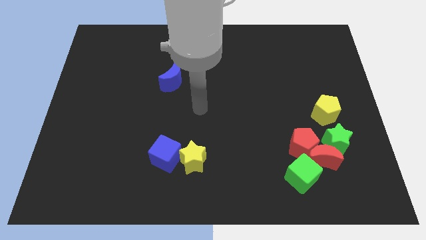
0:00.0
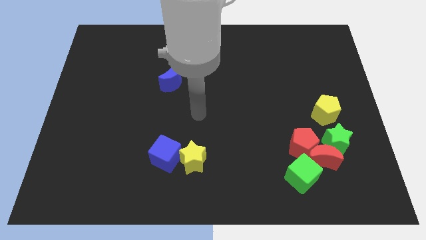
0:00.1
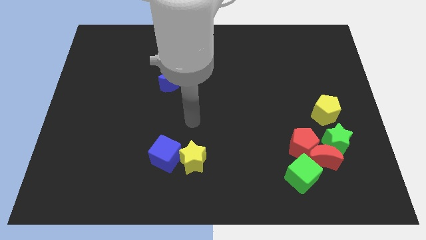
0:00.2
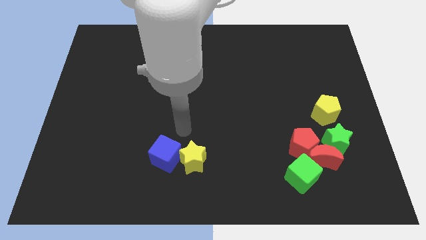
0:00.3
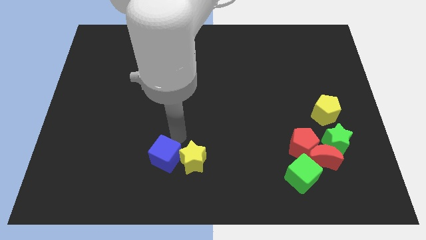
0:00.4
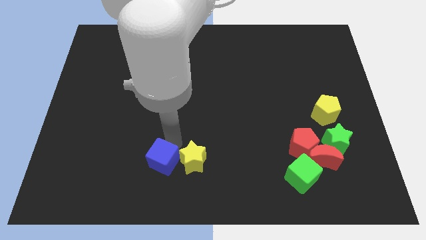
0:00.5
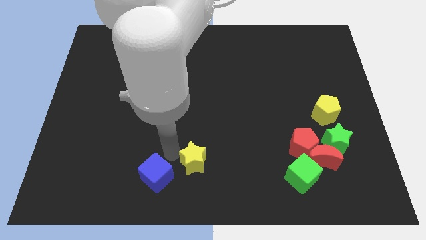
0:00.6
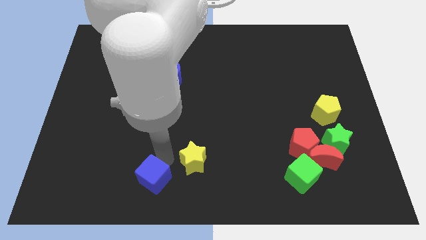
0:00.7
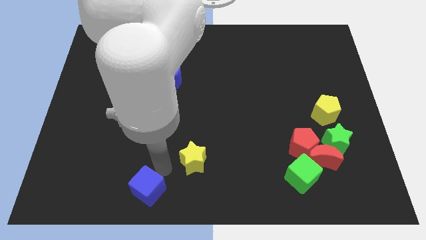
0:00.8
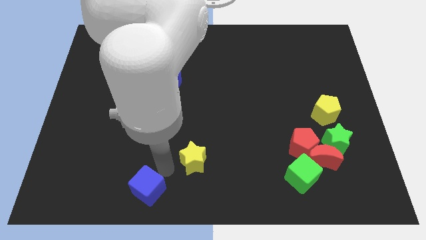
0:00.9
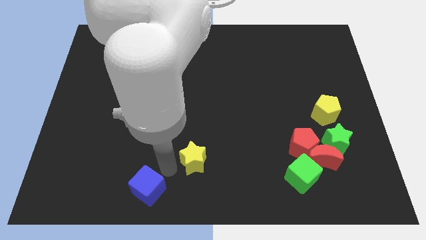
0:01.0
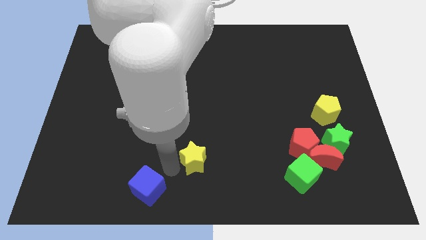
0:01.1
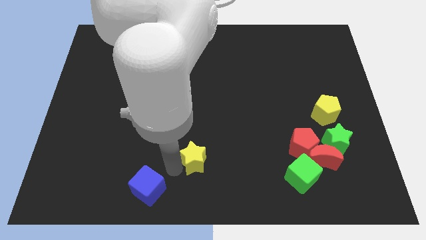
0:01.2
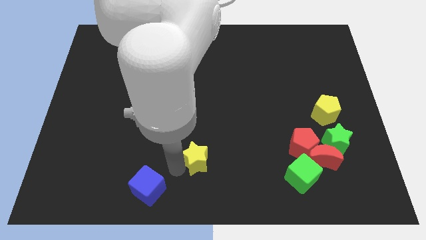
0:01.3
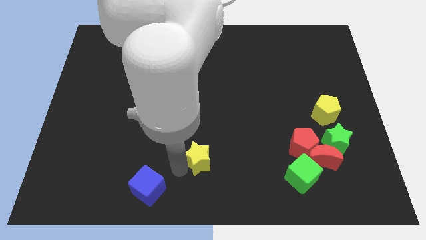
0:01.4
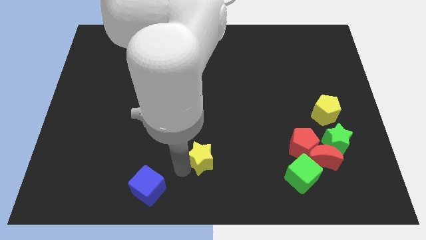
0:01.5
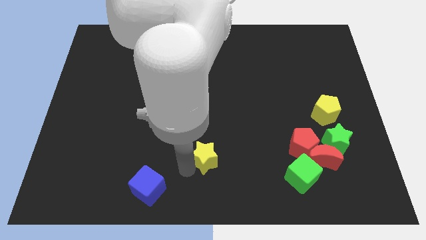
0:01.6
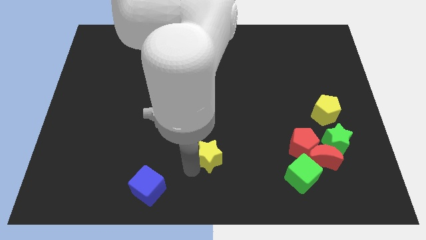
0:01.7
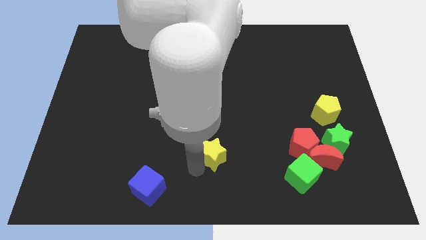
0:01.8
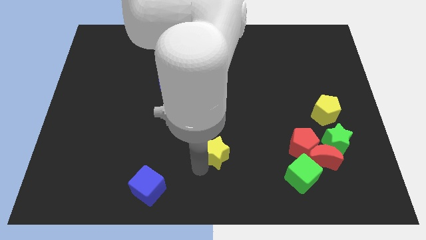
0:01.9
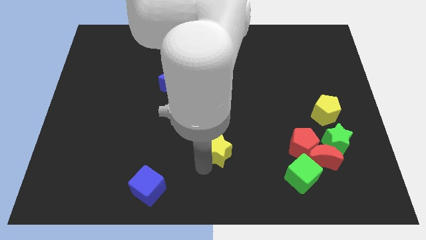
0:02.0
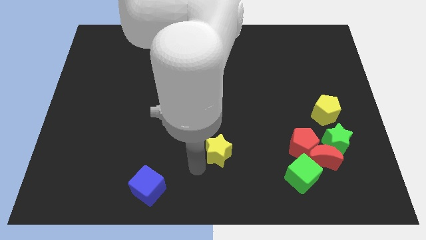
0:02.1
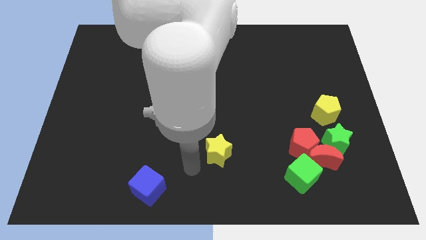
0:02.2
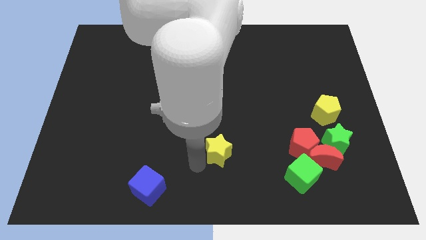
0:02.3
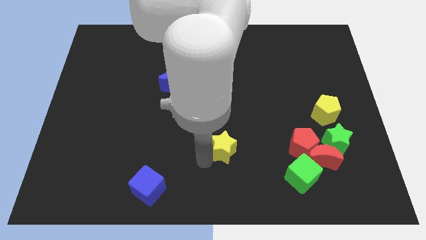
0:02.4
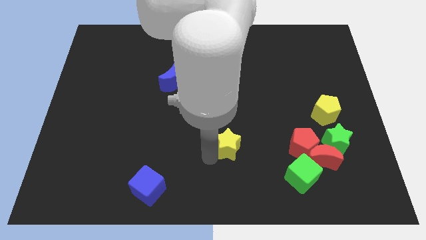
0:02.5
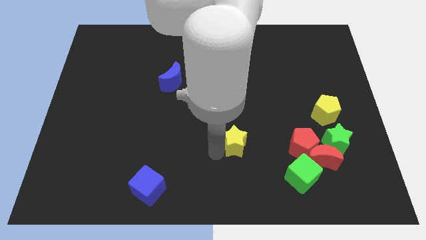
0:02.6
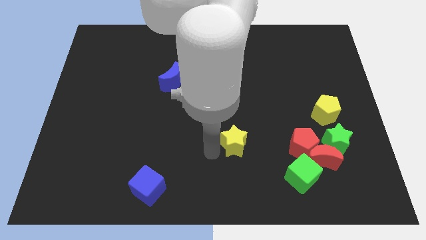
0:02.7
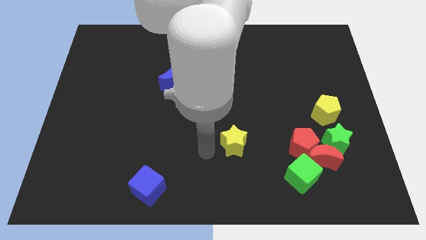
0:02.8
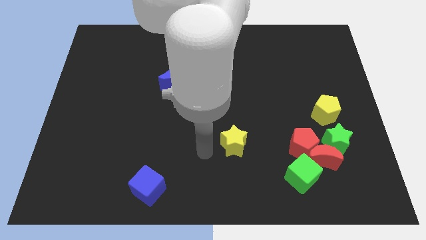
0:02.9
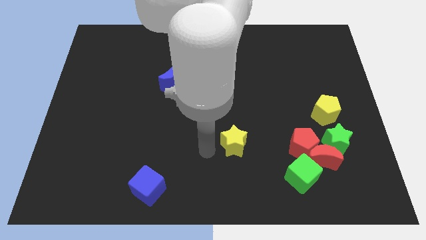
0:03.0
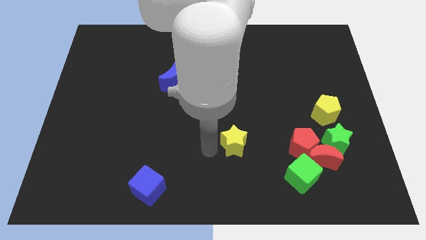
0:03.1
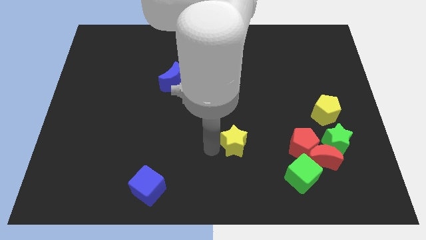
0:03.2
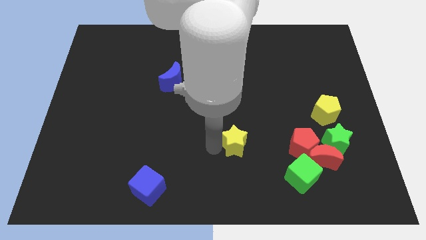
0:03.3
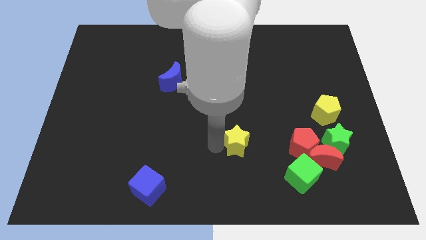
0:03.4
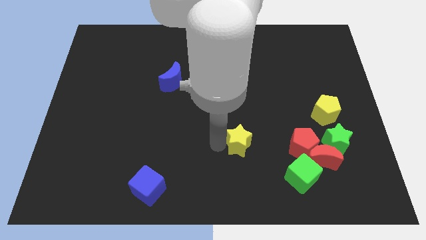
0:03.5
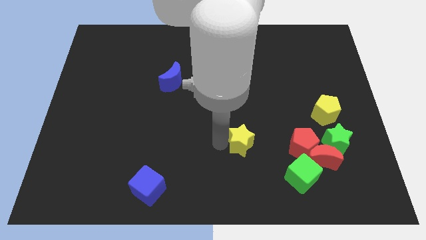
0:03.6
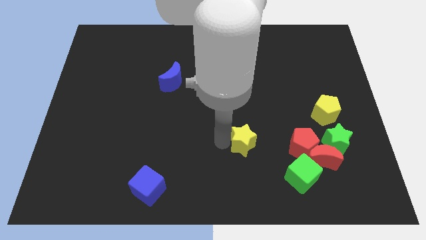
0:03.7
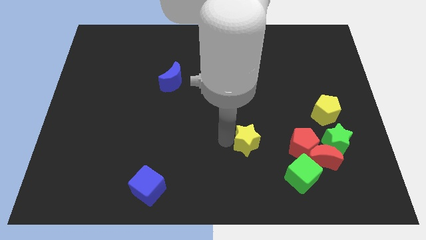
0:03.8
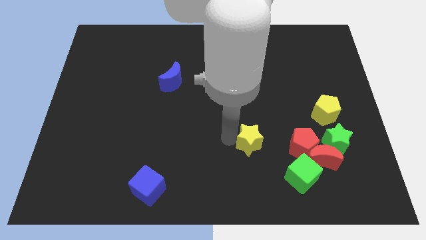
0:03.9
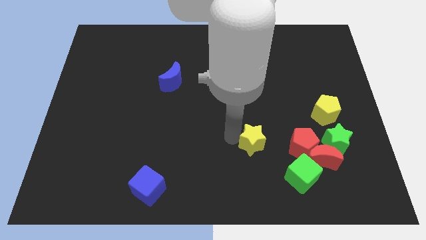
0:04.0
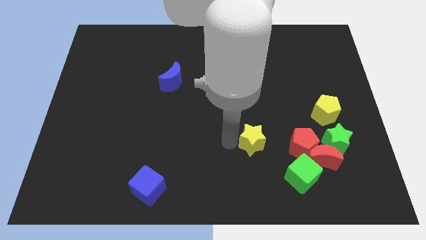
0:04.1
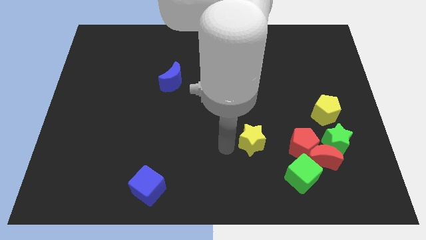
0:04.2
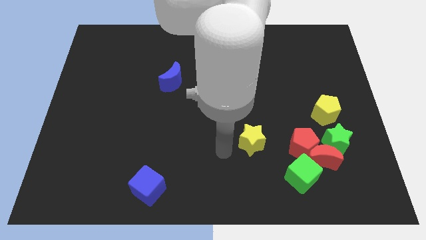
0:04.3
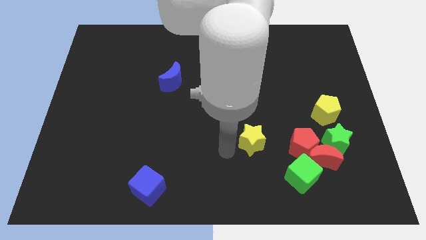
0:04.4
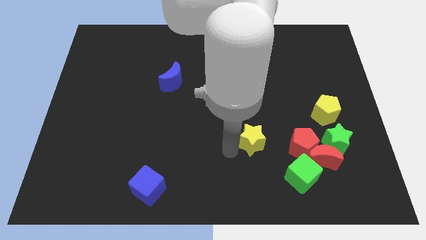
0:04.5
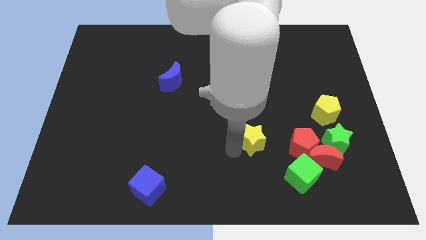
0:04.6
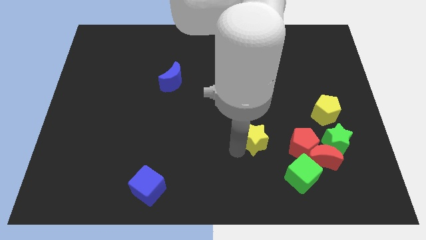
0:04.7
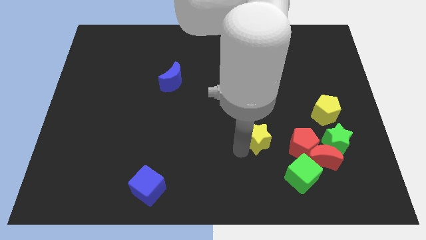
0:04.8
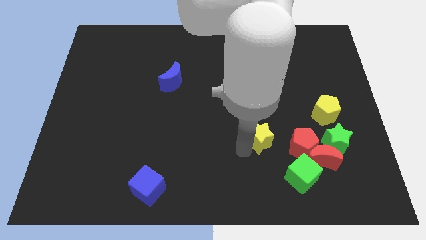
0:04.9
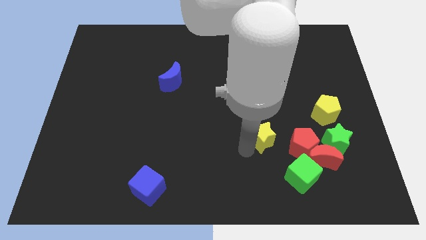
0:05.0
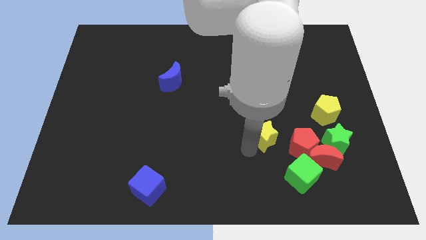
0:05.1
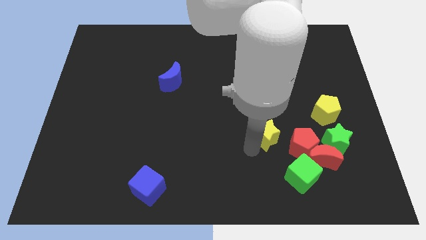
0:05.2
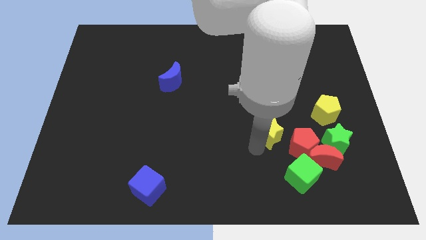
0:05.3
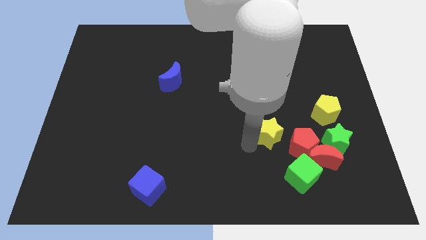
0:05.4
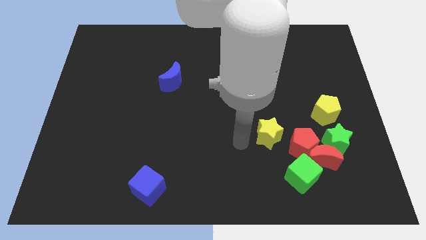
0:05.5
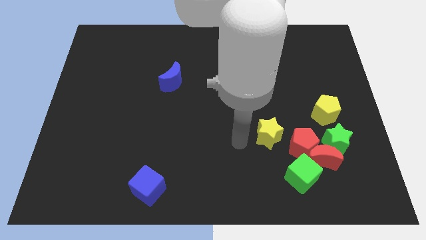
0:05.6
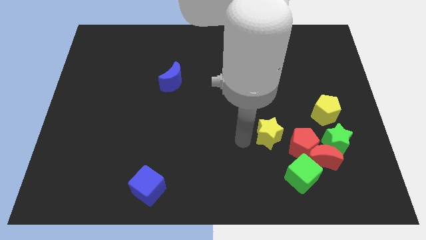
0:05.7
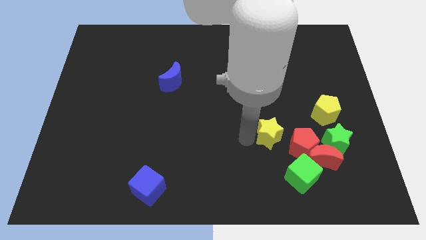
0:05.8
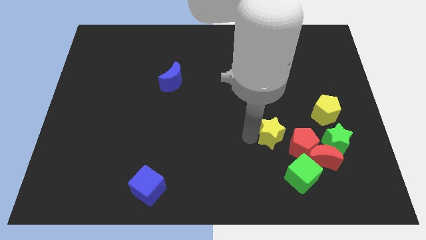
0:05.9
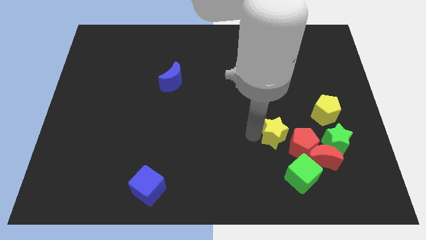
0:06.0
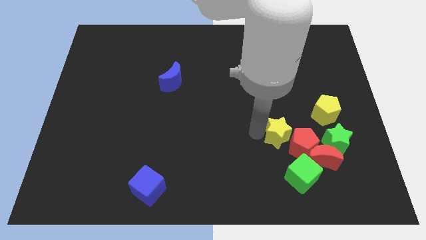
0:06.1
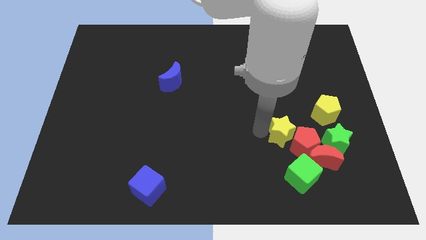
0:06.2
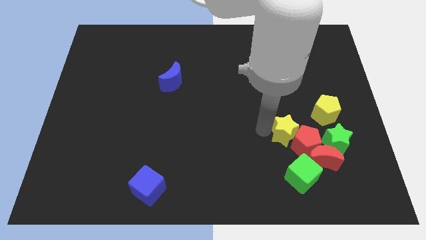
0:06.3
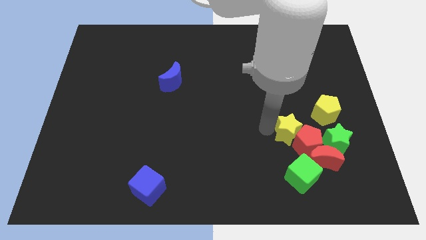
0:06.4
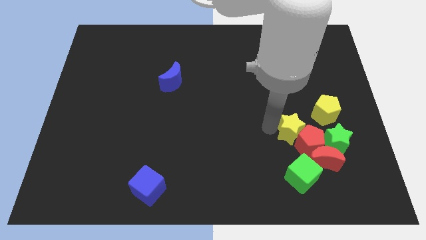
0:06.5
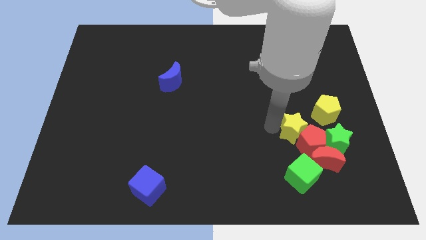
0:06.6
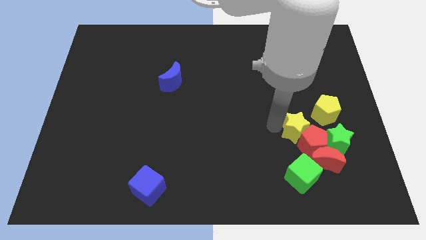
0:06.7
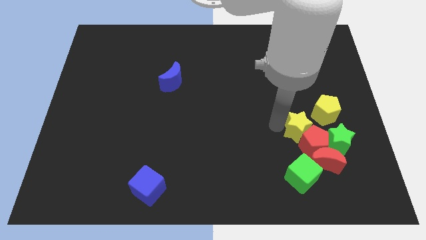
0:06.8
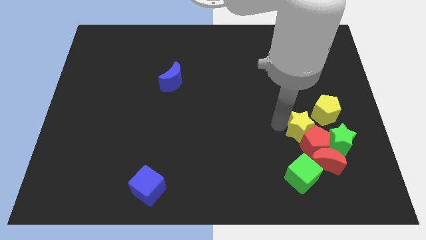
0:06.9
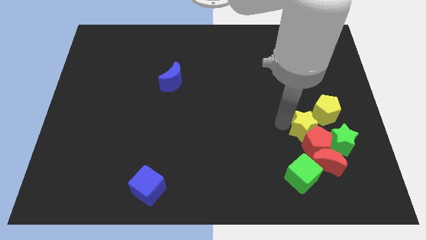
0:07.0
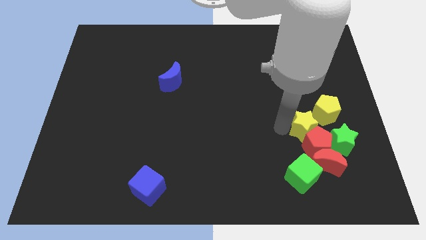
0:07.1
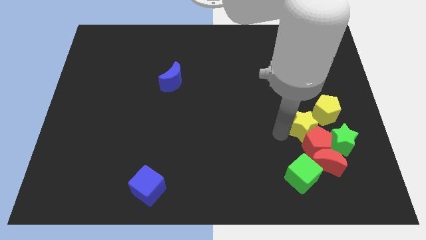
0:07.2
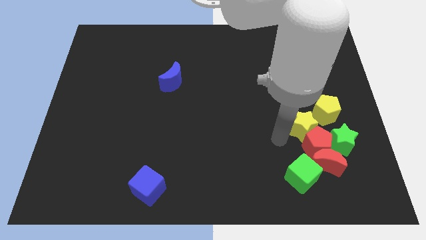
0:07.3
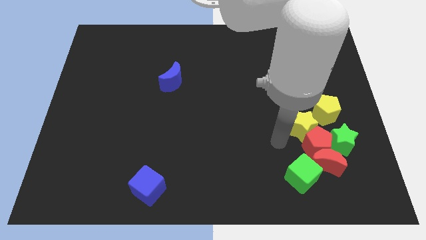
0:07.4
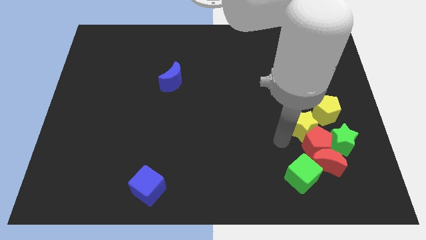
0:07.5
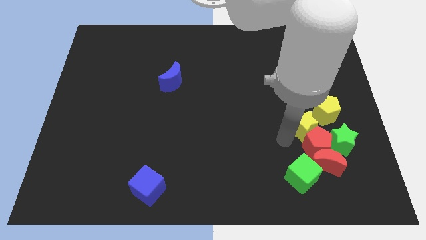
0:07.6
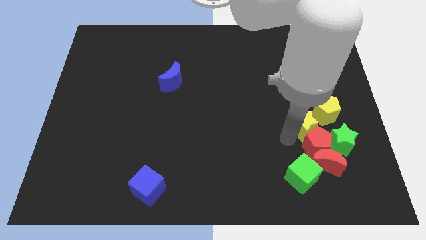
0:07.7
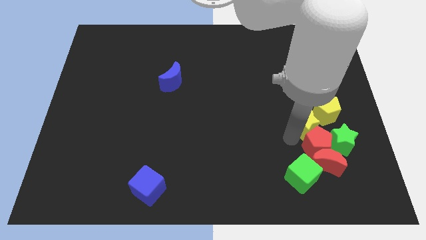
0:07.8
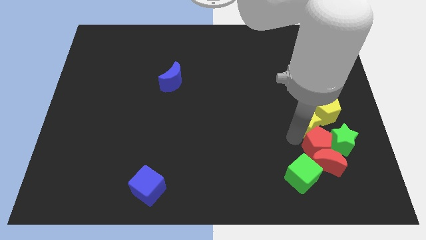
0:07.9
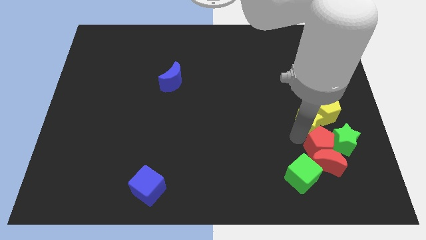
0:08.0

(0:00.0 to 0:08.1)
move the yellow star to the yellow pentagon
